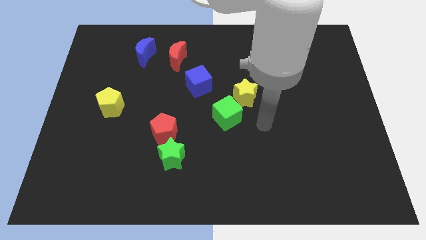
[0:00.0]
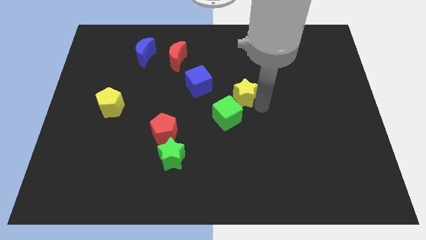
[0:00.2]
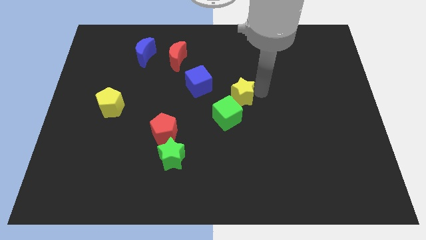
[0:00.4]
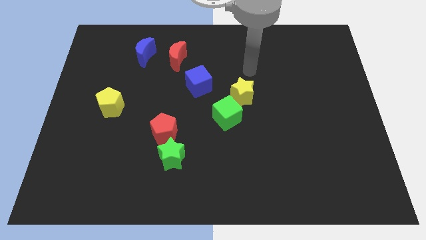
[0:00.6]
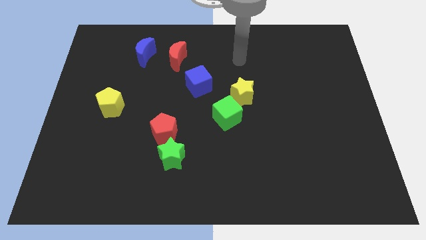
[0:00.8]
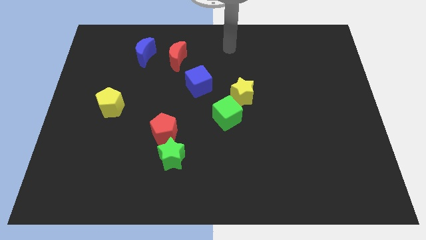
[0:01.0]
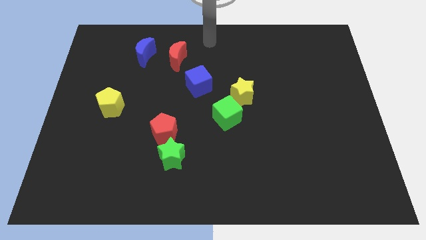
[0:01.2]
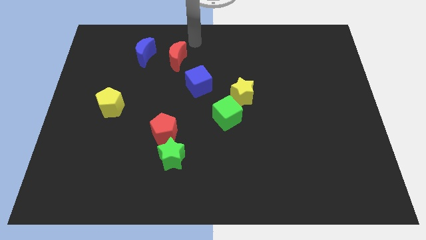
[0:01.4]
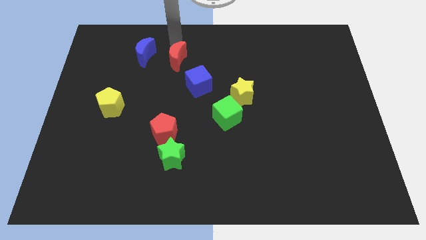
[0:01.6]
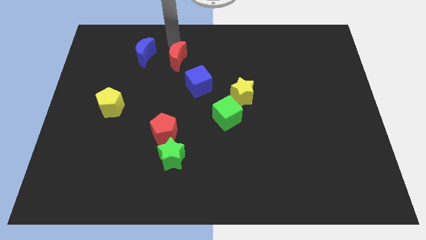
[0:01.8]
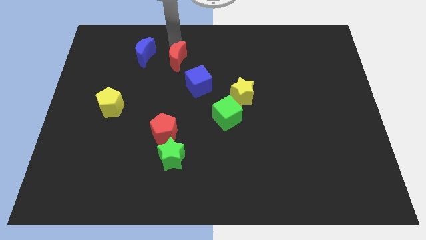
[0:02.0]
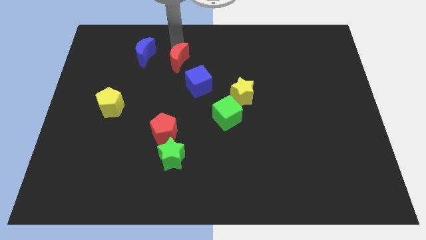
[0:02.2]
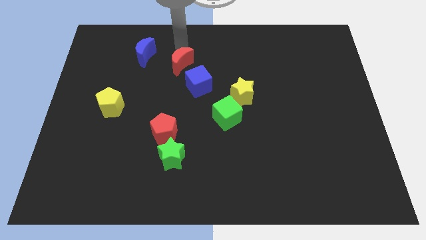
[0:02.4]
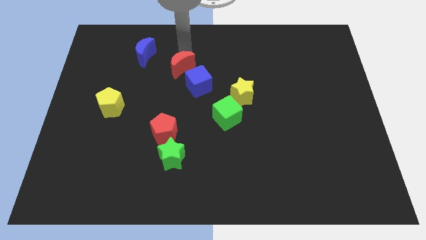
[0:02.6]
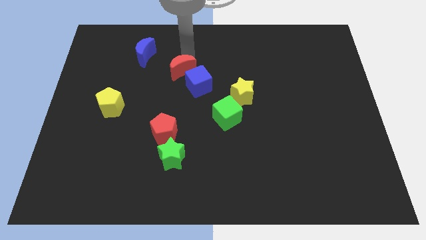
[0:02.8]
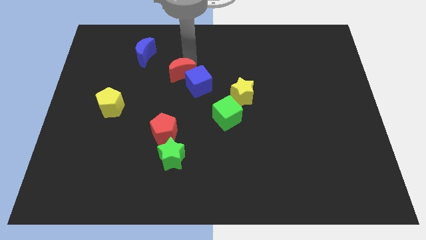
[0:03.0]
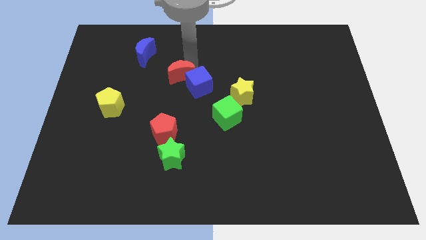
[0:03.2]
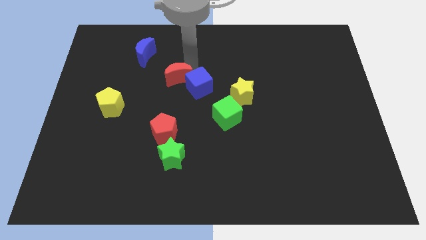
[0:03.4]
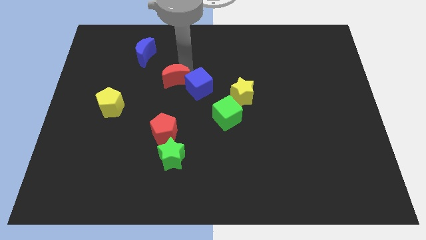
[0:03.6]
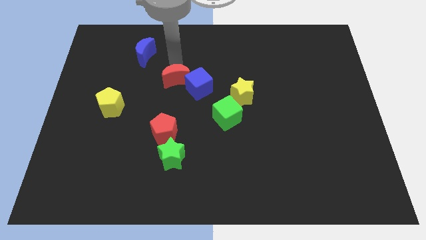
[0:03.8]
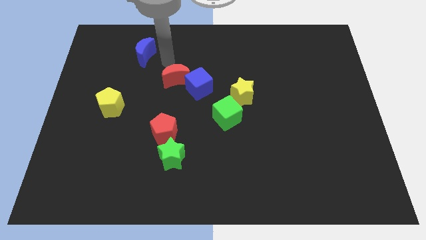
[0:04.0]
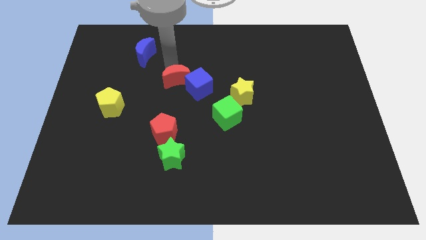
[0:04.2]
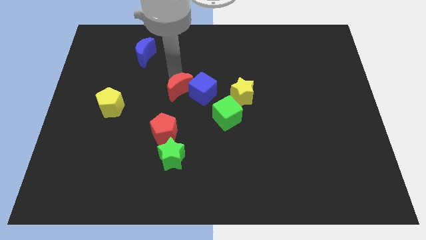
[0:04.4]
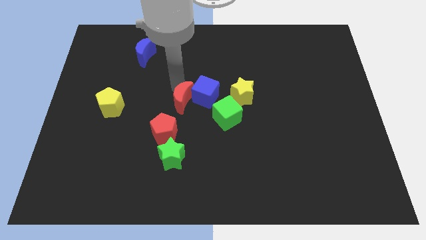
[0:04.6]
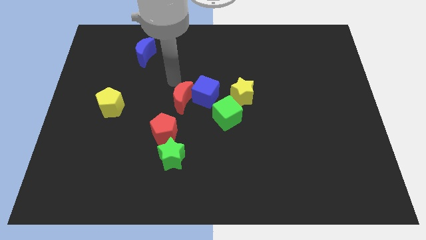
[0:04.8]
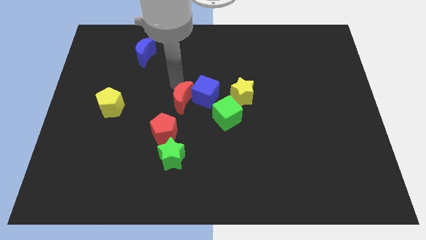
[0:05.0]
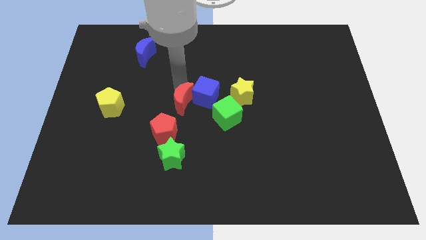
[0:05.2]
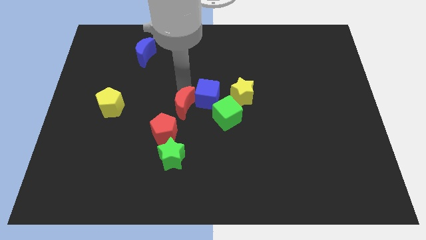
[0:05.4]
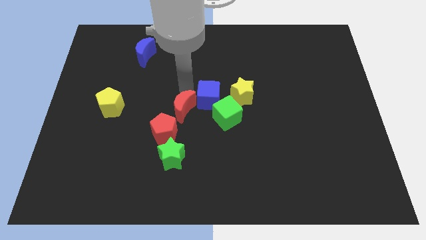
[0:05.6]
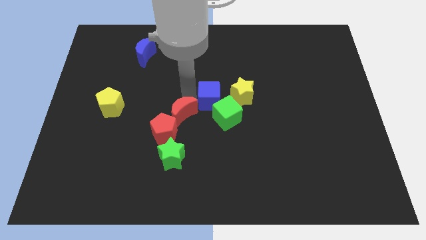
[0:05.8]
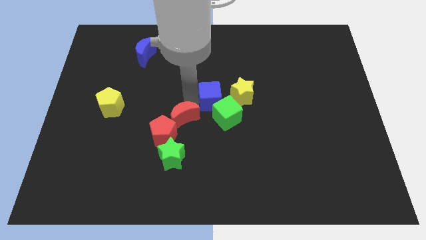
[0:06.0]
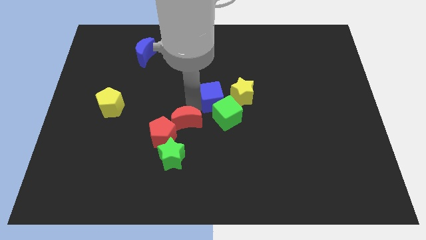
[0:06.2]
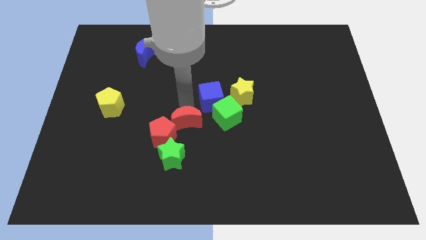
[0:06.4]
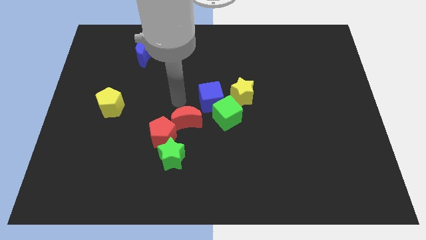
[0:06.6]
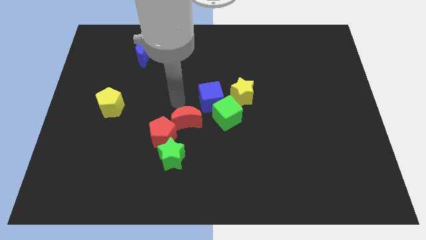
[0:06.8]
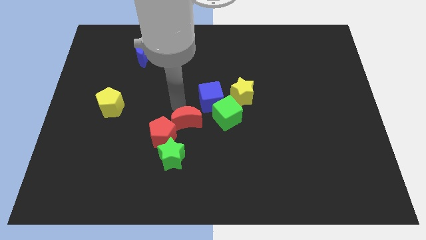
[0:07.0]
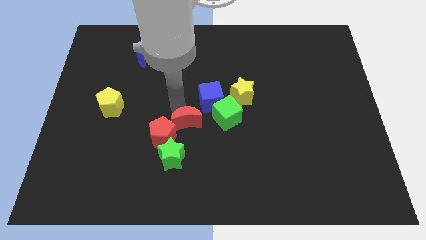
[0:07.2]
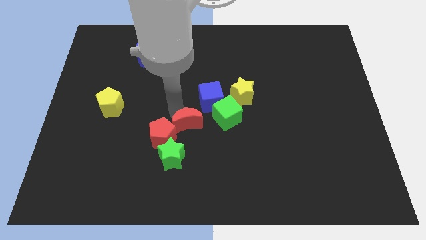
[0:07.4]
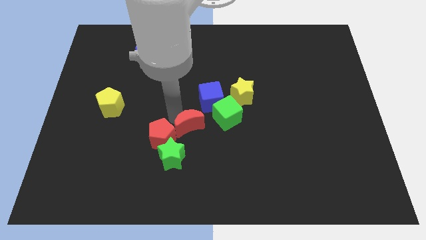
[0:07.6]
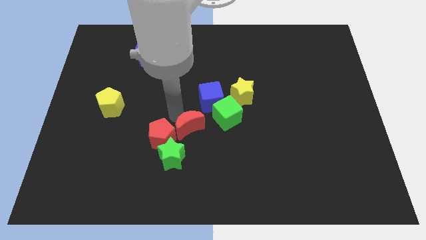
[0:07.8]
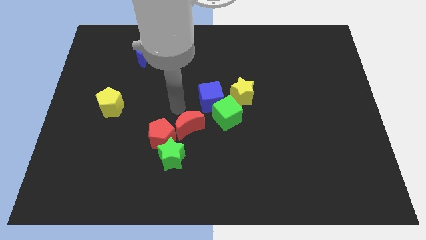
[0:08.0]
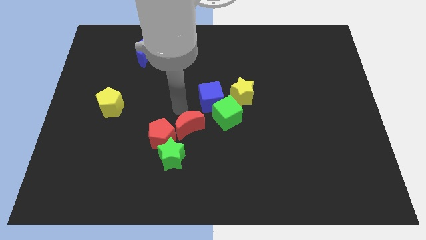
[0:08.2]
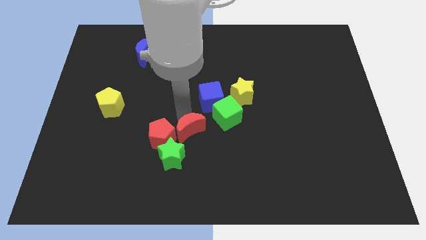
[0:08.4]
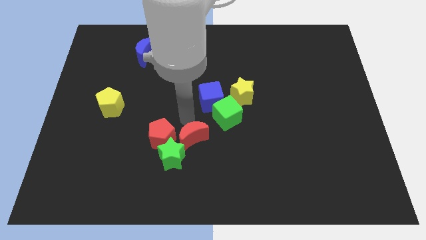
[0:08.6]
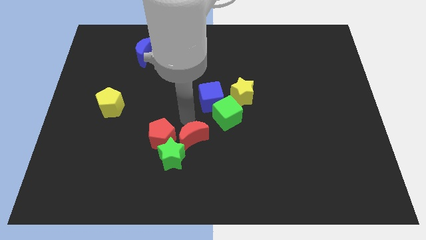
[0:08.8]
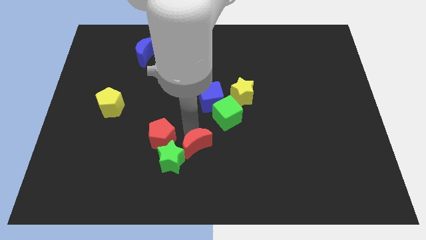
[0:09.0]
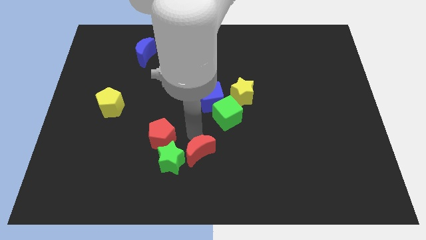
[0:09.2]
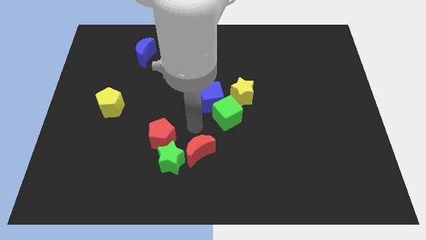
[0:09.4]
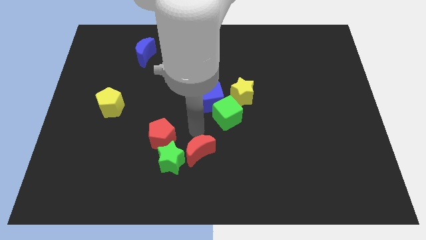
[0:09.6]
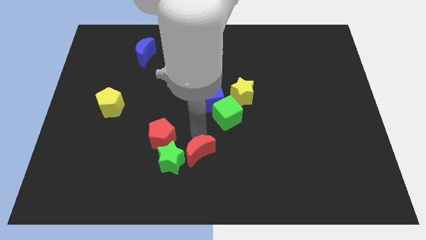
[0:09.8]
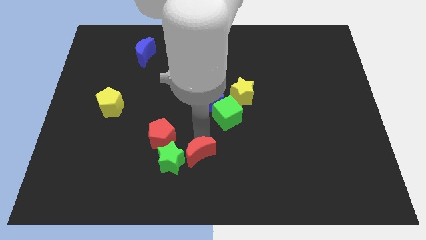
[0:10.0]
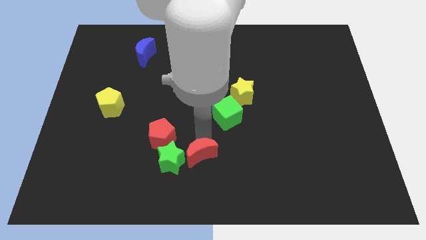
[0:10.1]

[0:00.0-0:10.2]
push the red moon to the bottom side
